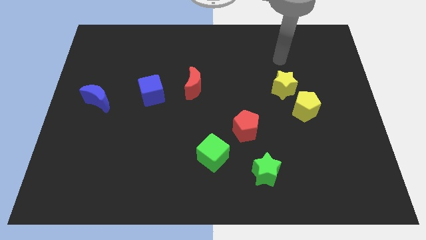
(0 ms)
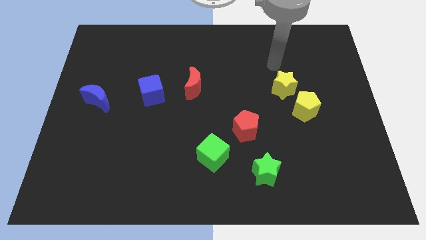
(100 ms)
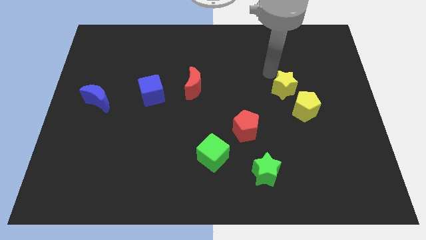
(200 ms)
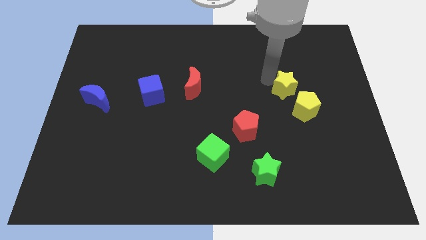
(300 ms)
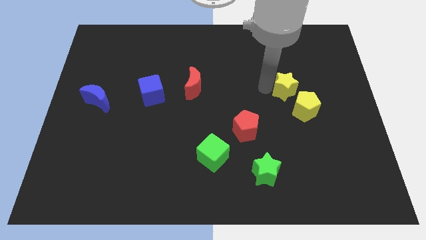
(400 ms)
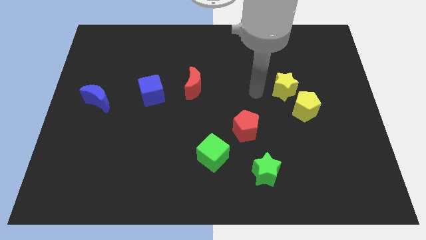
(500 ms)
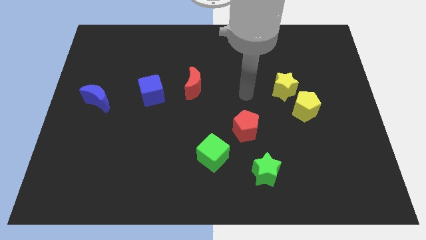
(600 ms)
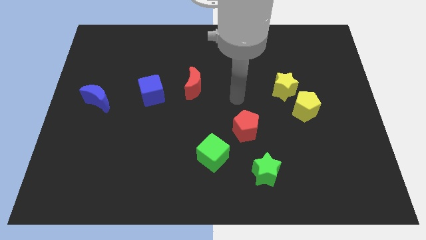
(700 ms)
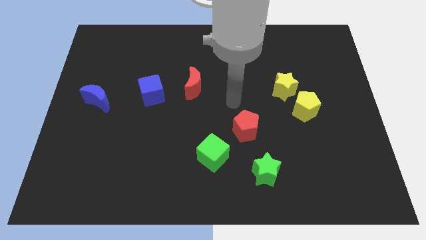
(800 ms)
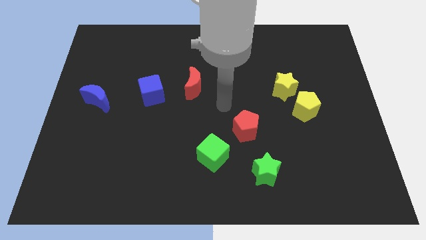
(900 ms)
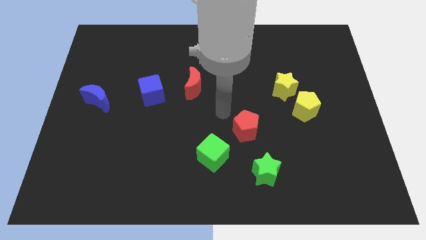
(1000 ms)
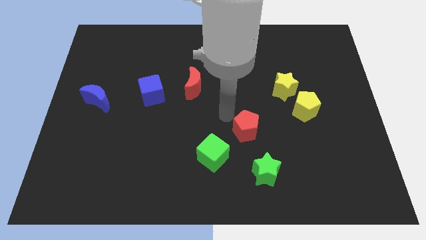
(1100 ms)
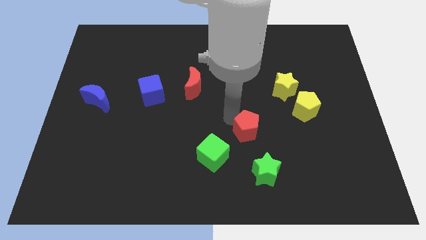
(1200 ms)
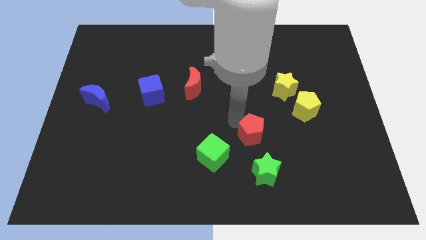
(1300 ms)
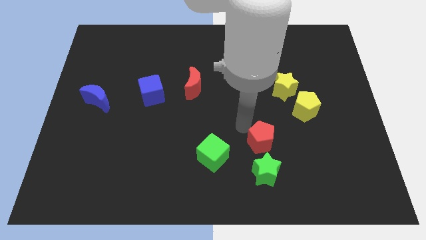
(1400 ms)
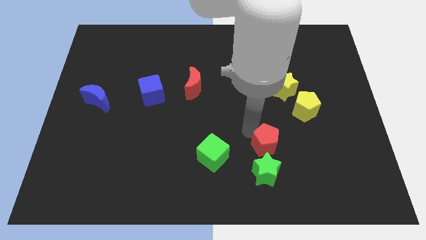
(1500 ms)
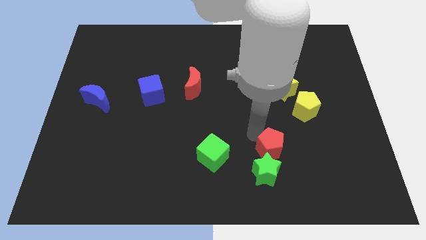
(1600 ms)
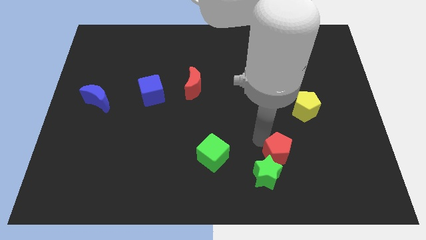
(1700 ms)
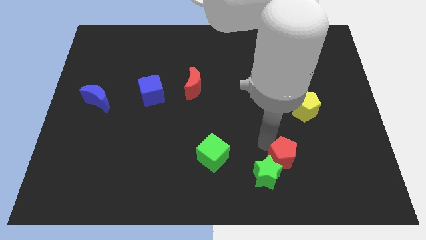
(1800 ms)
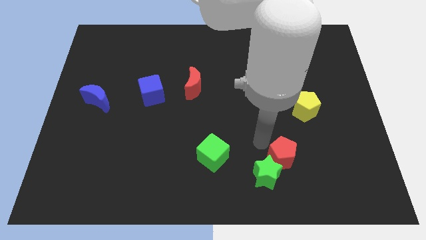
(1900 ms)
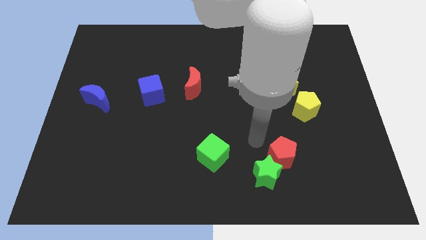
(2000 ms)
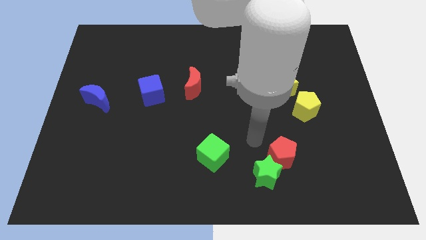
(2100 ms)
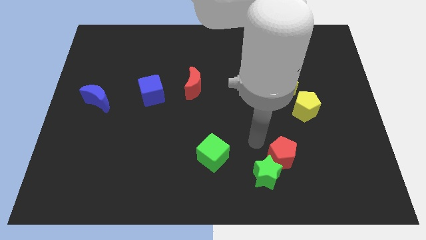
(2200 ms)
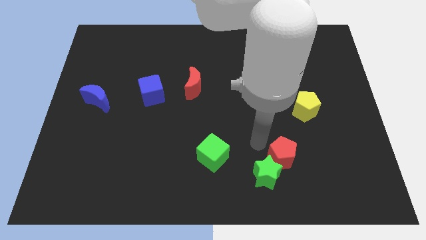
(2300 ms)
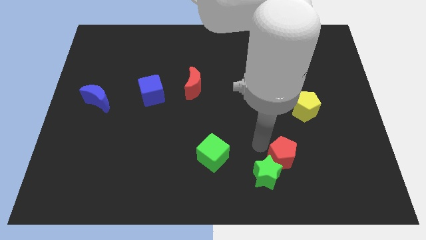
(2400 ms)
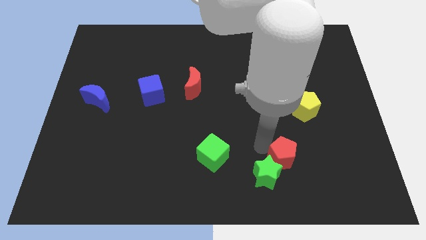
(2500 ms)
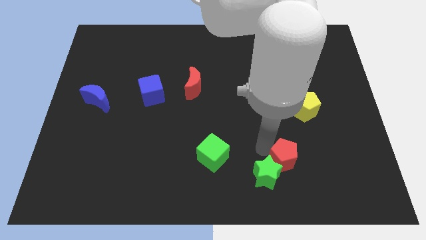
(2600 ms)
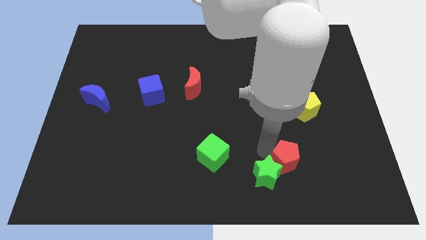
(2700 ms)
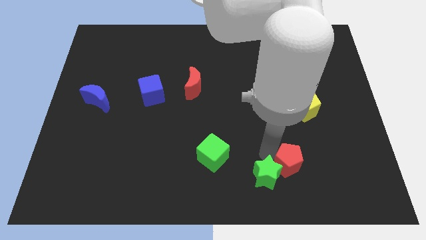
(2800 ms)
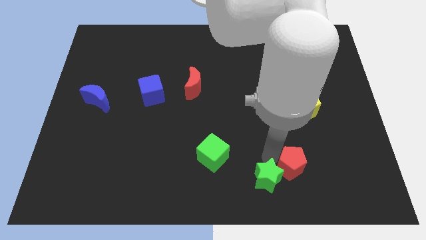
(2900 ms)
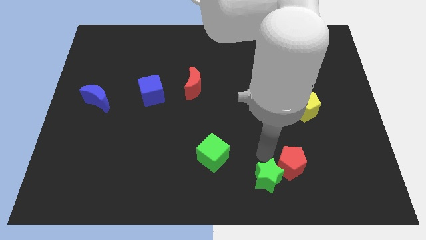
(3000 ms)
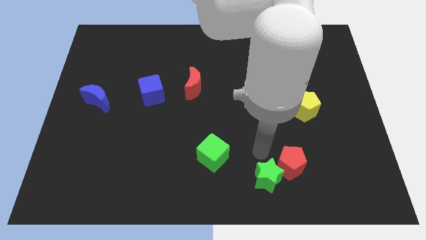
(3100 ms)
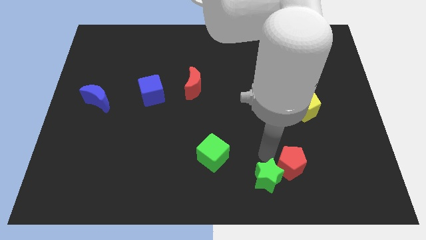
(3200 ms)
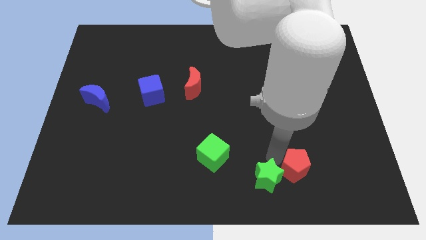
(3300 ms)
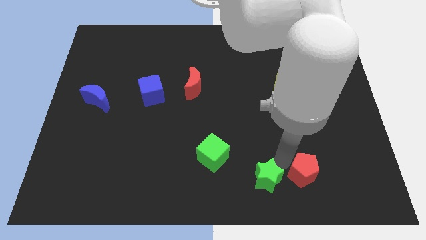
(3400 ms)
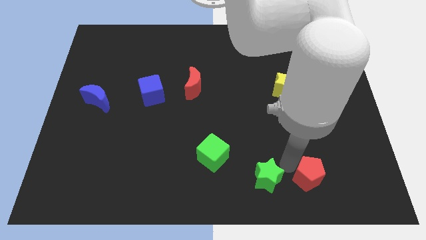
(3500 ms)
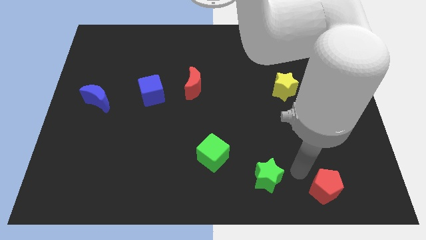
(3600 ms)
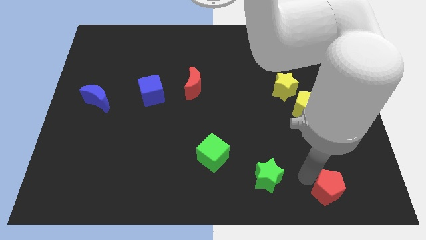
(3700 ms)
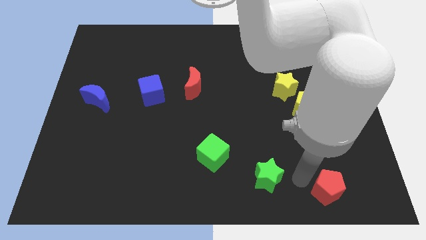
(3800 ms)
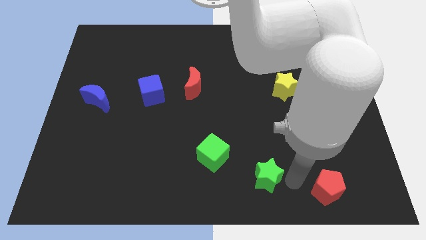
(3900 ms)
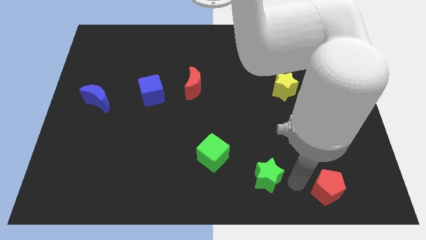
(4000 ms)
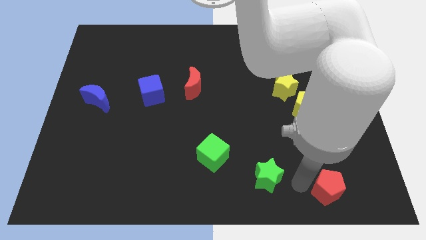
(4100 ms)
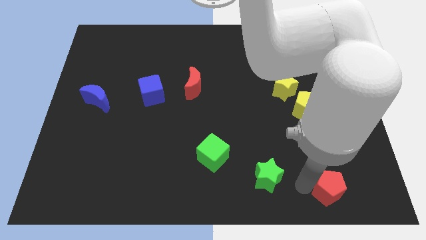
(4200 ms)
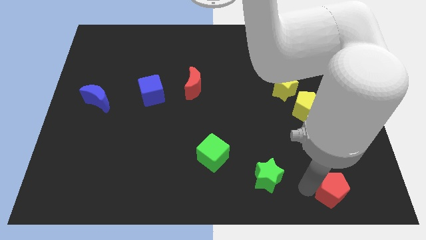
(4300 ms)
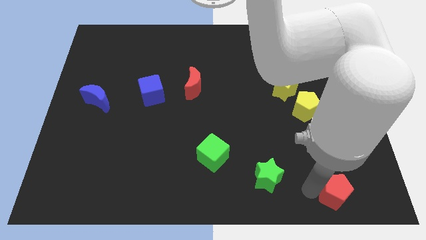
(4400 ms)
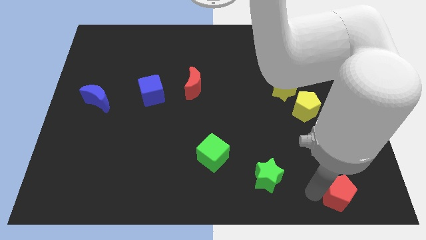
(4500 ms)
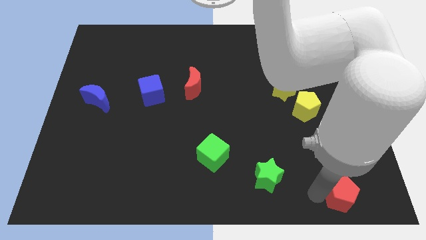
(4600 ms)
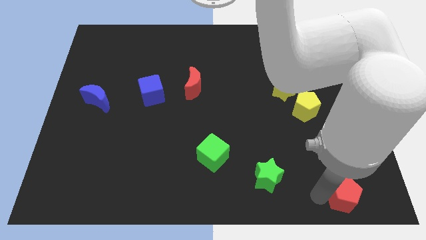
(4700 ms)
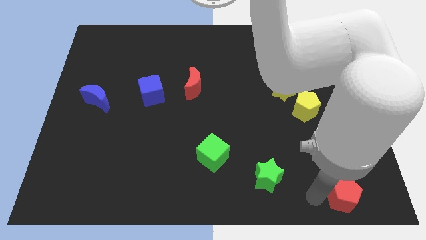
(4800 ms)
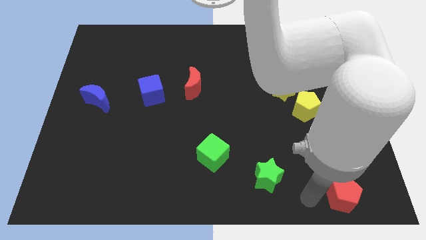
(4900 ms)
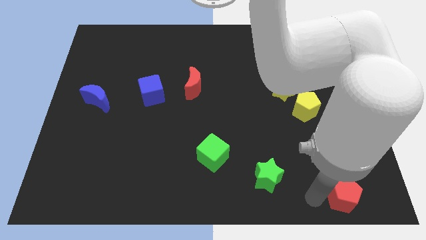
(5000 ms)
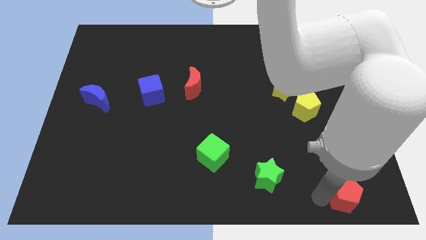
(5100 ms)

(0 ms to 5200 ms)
push the red pentagon to the bottom right

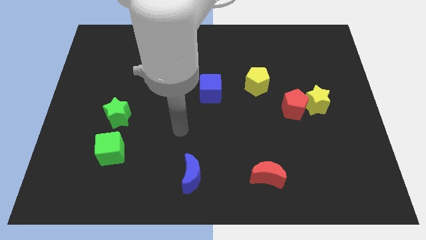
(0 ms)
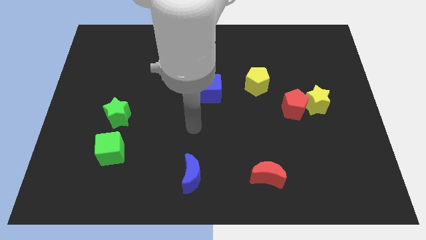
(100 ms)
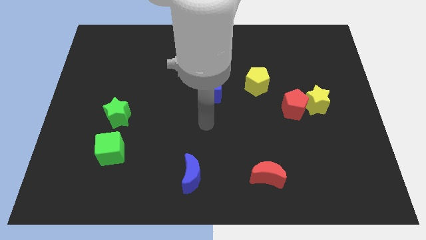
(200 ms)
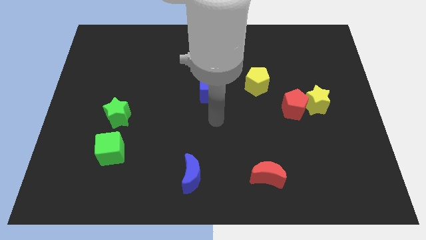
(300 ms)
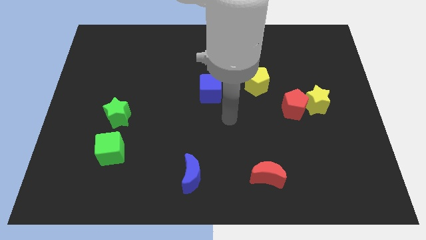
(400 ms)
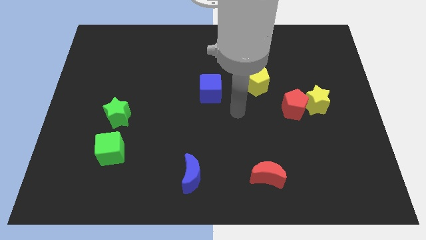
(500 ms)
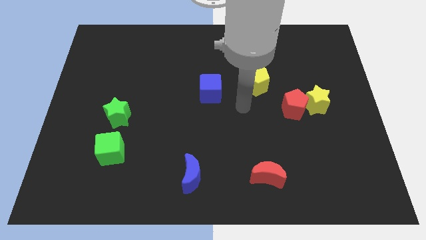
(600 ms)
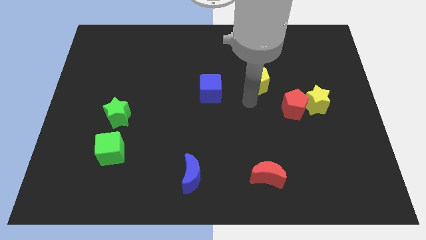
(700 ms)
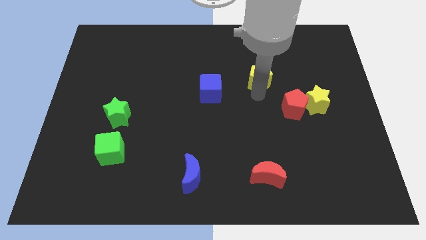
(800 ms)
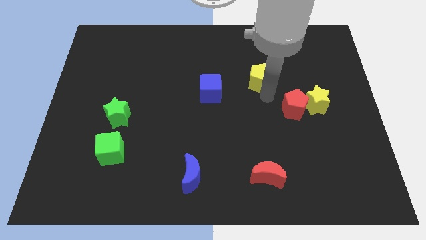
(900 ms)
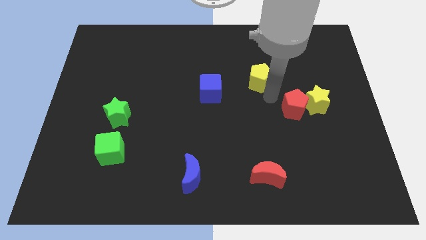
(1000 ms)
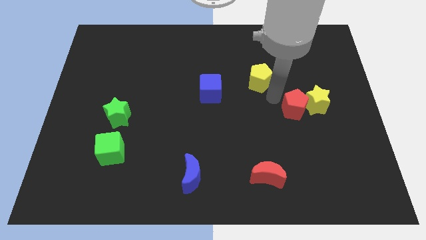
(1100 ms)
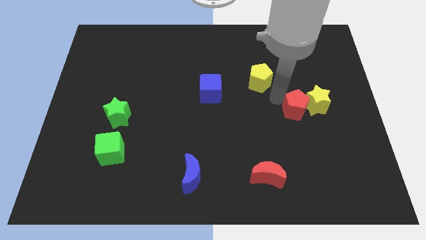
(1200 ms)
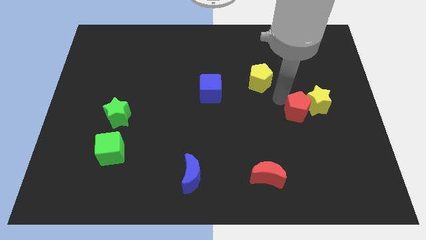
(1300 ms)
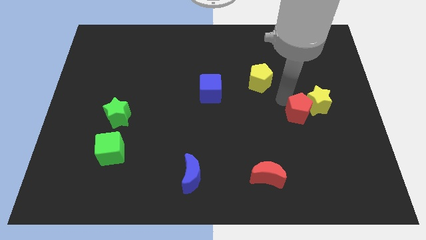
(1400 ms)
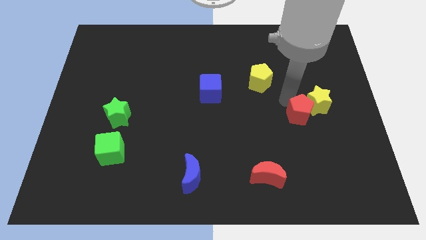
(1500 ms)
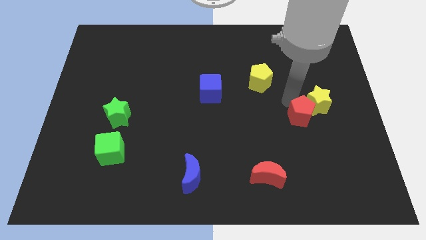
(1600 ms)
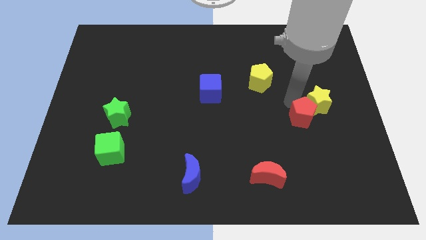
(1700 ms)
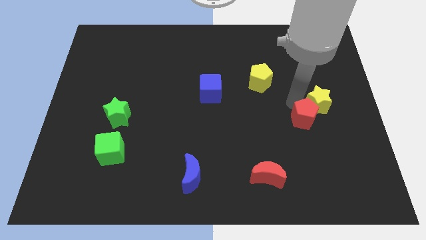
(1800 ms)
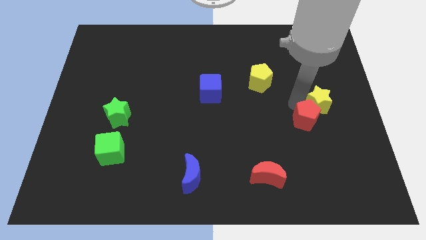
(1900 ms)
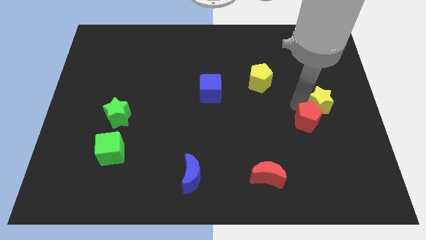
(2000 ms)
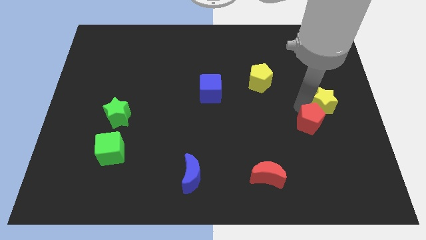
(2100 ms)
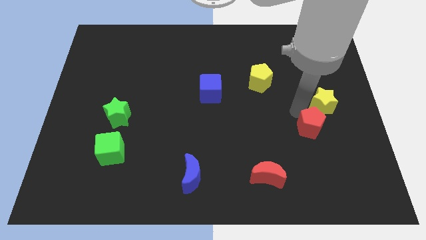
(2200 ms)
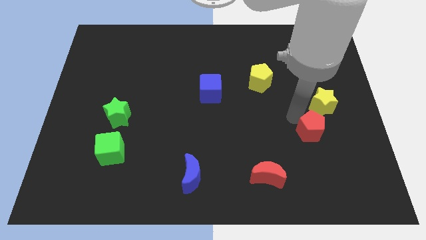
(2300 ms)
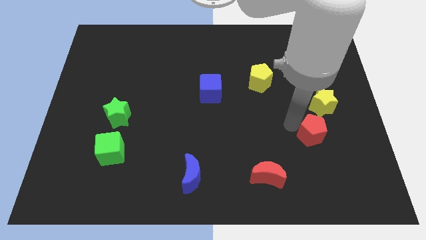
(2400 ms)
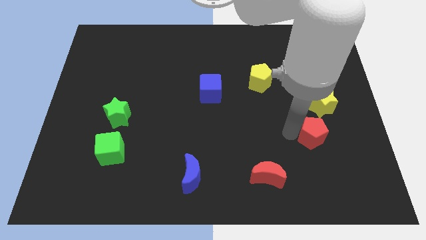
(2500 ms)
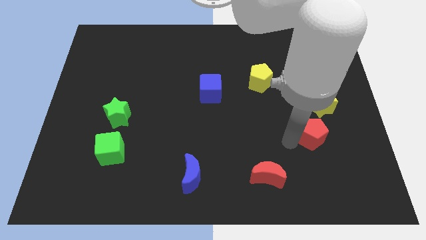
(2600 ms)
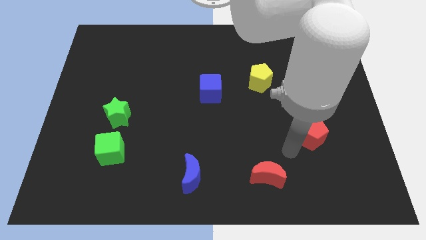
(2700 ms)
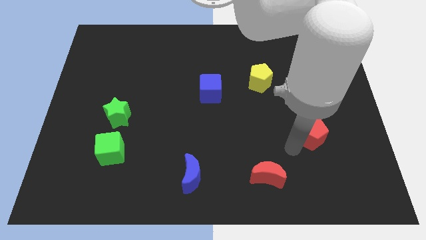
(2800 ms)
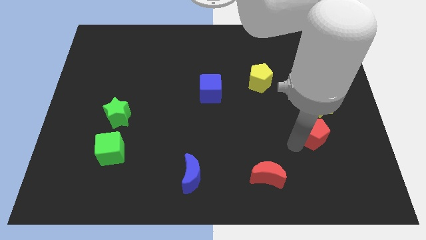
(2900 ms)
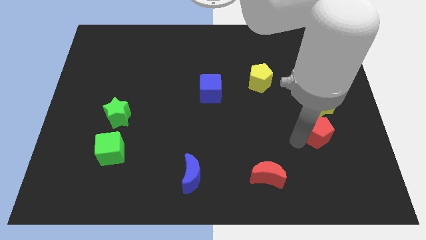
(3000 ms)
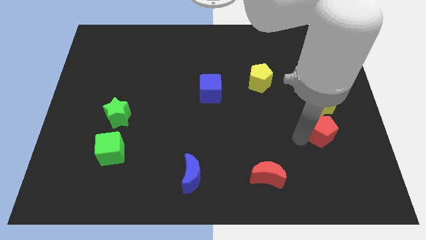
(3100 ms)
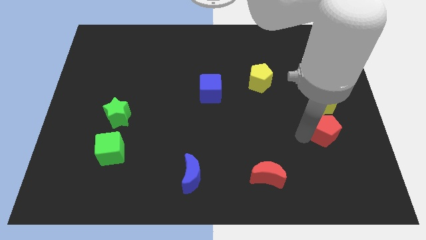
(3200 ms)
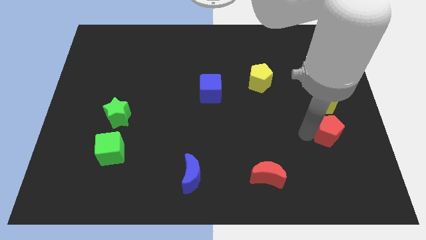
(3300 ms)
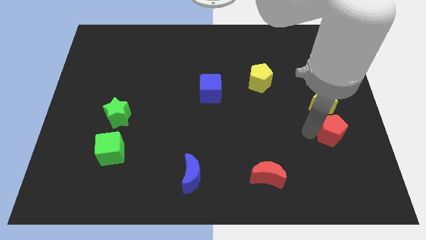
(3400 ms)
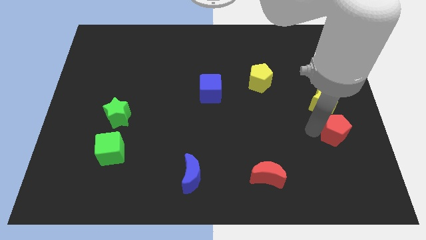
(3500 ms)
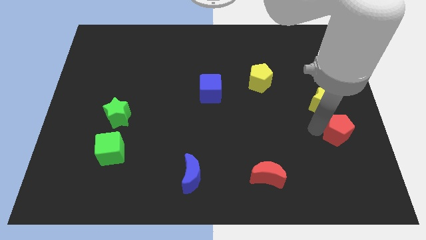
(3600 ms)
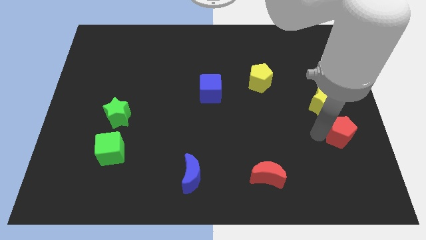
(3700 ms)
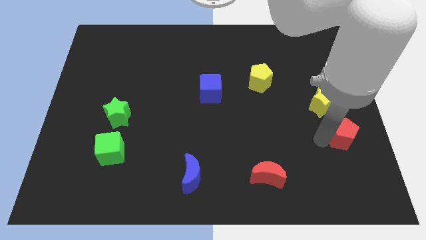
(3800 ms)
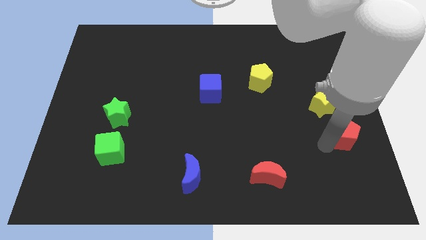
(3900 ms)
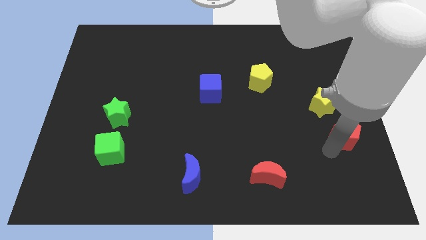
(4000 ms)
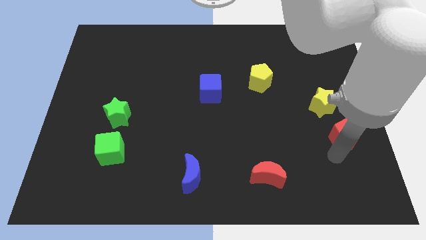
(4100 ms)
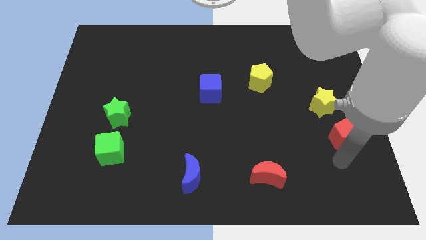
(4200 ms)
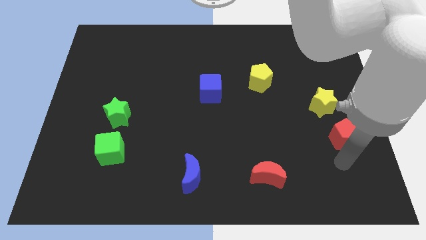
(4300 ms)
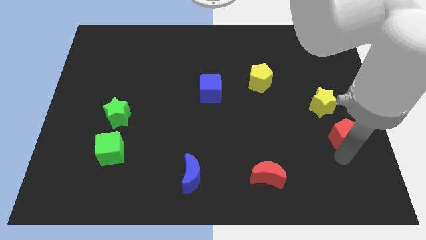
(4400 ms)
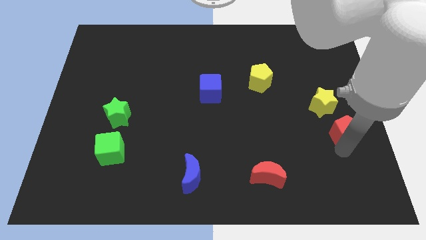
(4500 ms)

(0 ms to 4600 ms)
move the red pentagon to the right side
